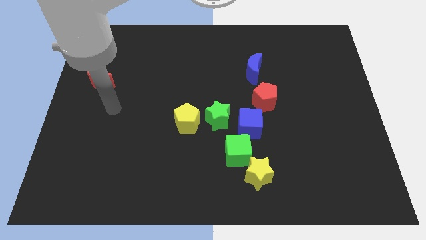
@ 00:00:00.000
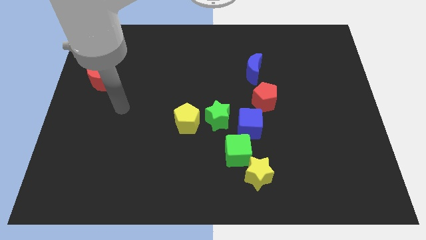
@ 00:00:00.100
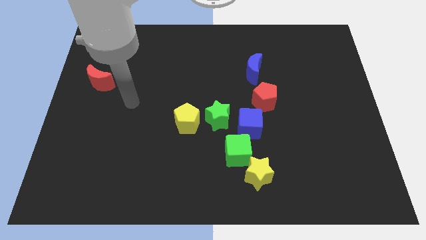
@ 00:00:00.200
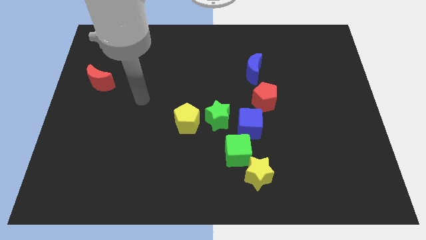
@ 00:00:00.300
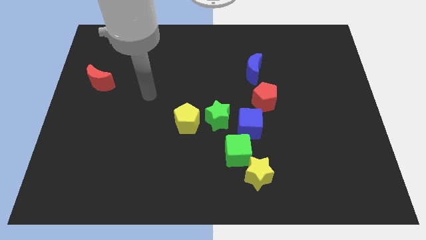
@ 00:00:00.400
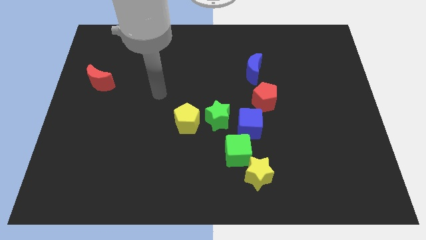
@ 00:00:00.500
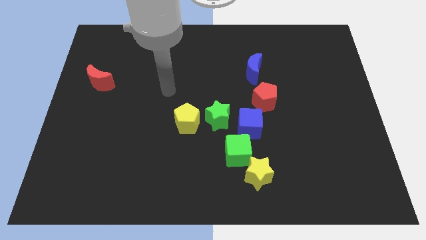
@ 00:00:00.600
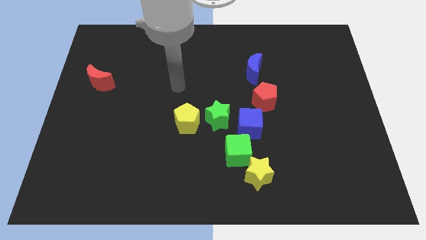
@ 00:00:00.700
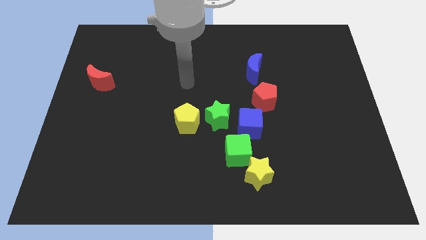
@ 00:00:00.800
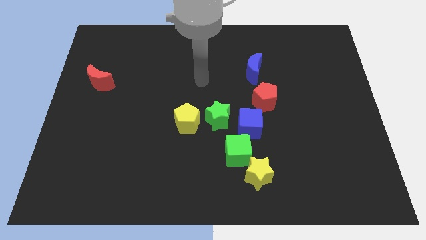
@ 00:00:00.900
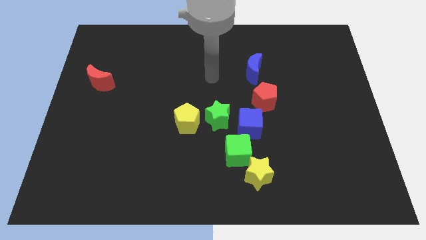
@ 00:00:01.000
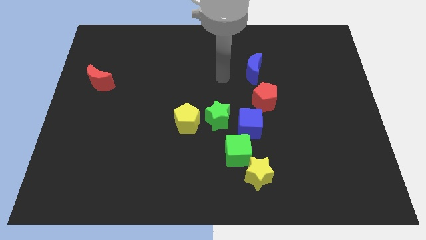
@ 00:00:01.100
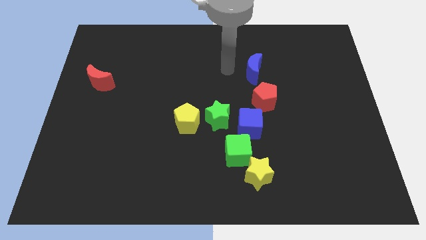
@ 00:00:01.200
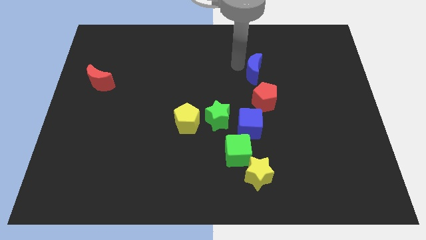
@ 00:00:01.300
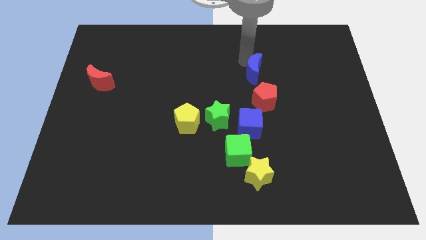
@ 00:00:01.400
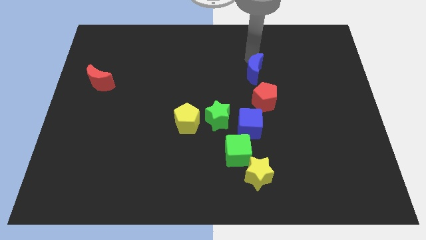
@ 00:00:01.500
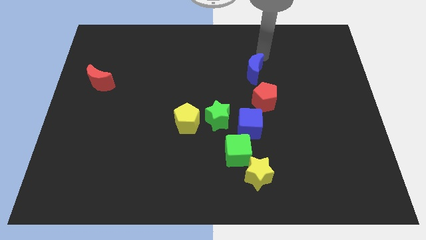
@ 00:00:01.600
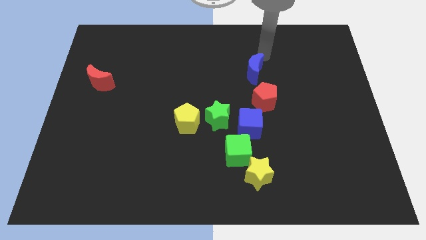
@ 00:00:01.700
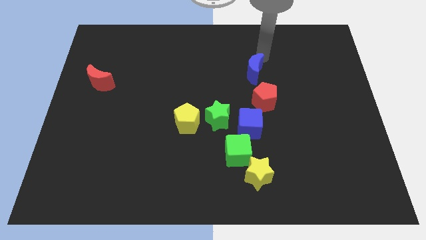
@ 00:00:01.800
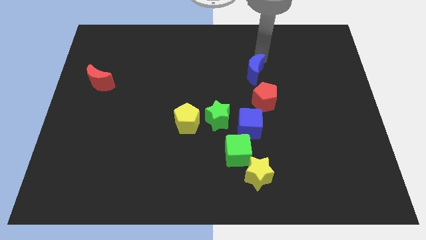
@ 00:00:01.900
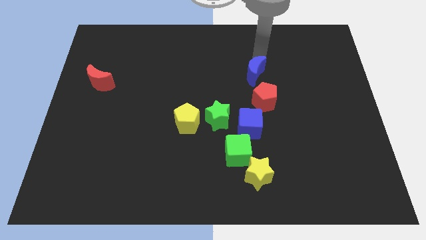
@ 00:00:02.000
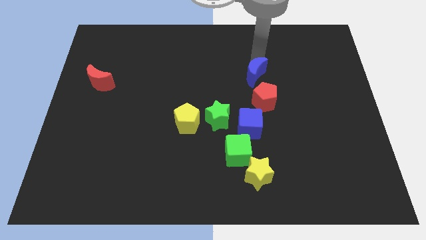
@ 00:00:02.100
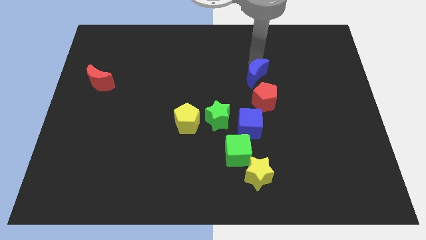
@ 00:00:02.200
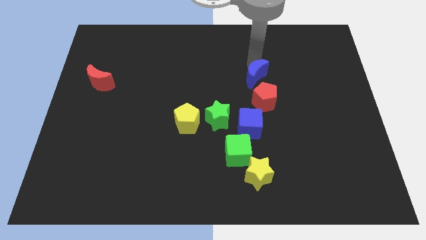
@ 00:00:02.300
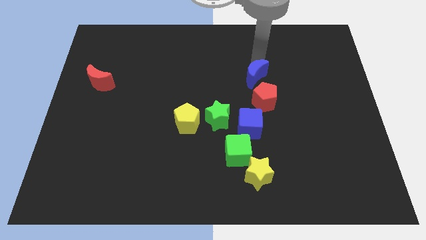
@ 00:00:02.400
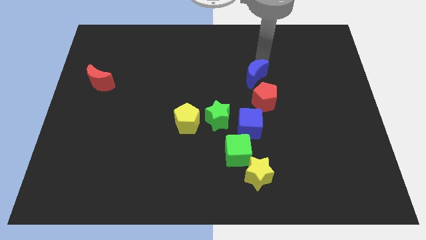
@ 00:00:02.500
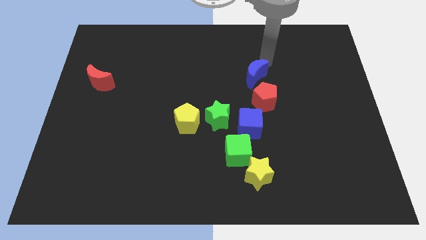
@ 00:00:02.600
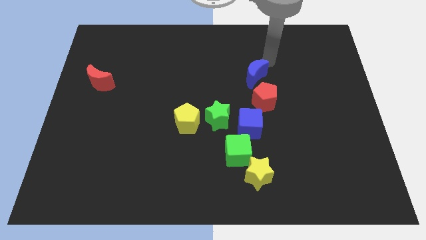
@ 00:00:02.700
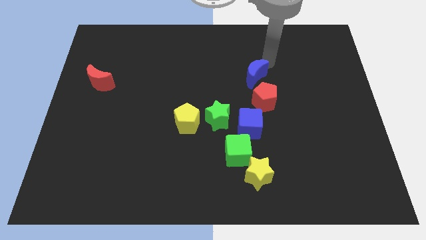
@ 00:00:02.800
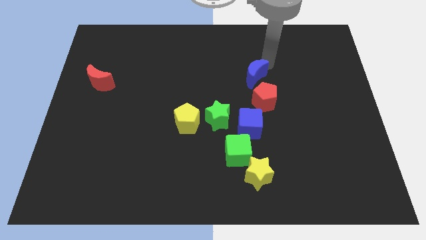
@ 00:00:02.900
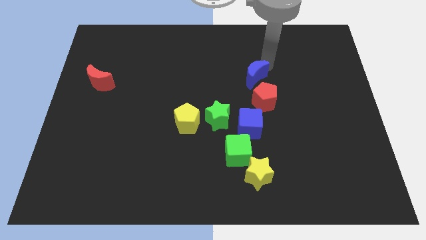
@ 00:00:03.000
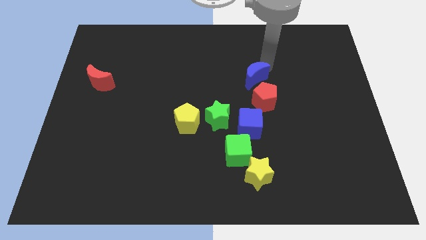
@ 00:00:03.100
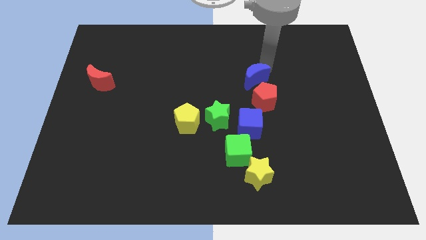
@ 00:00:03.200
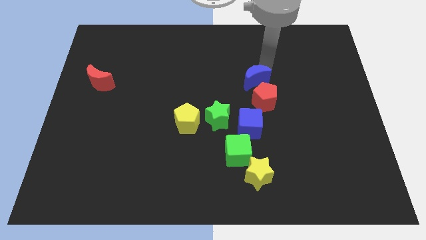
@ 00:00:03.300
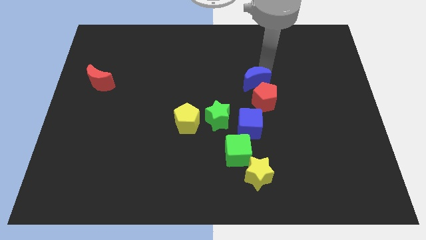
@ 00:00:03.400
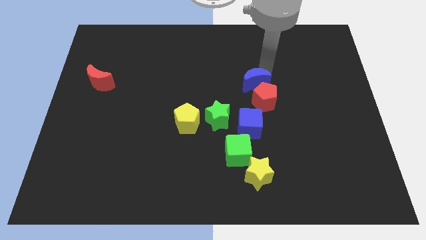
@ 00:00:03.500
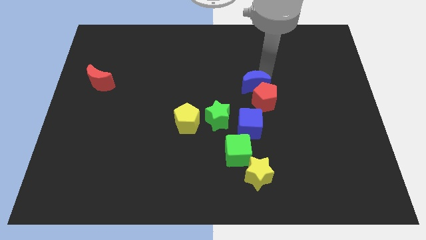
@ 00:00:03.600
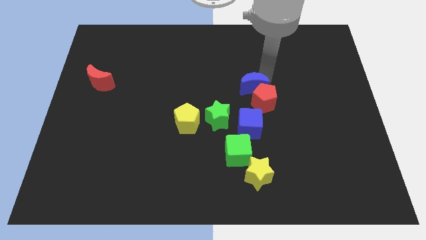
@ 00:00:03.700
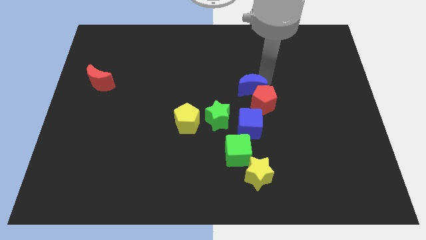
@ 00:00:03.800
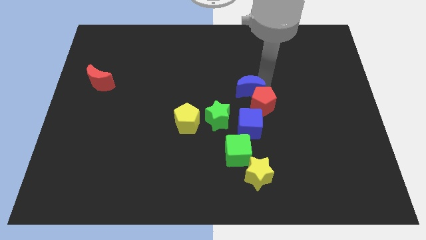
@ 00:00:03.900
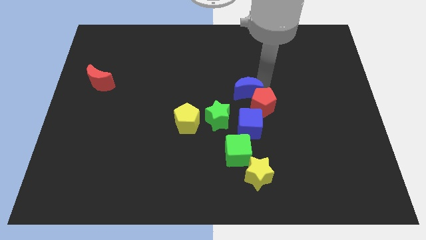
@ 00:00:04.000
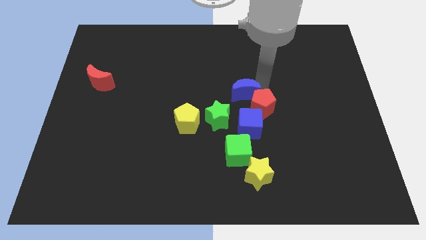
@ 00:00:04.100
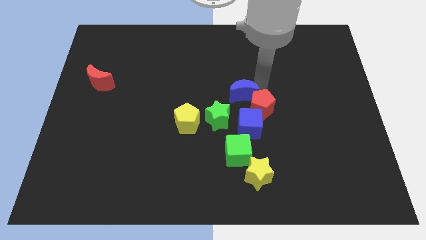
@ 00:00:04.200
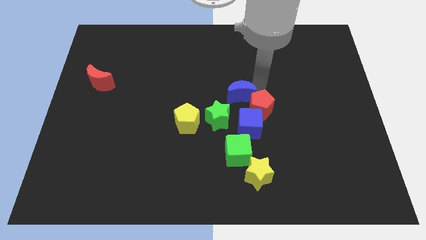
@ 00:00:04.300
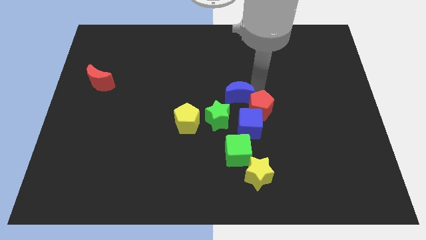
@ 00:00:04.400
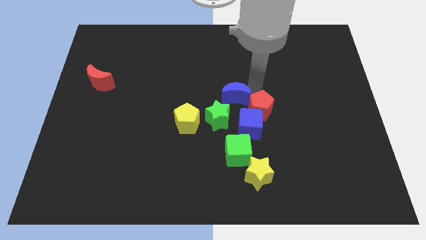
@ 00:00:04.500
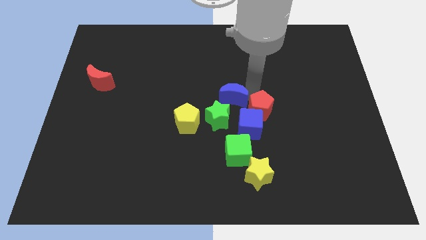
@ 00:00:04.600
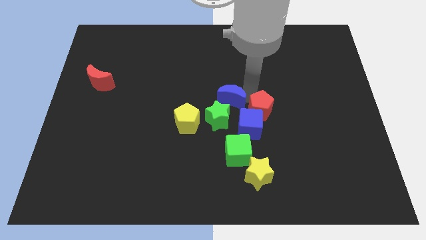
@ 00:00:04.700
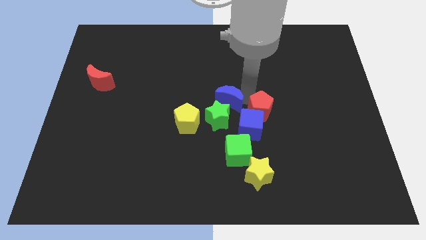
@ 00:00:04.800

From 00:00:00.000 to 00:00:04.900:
move the blue moon close to the green star

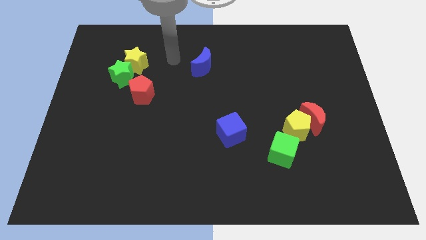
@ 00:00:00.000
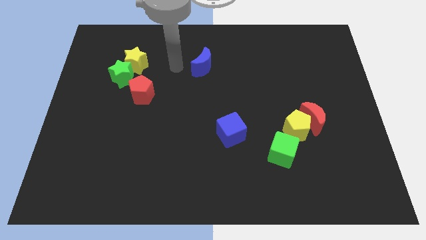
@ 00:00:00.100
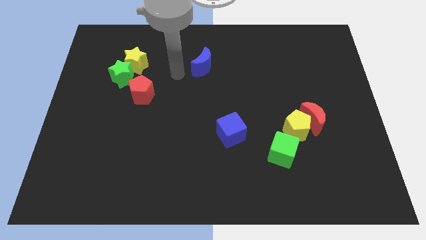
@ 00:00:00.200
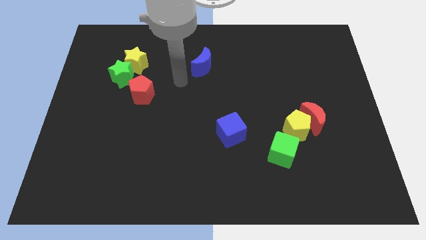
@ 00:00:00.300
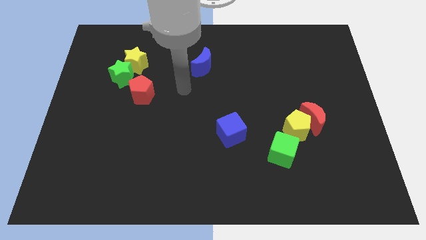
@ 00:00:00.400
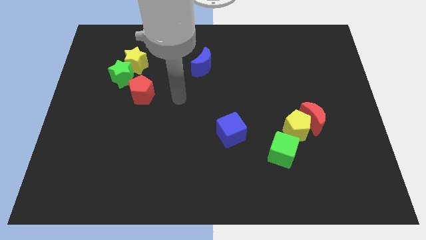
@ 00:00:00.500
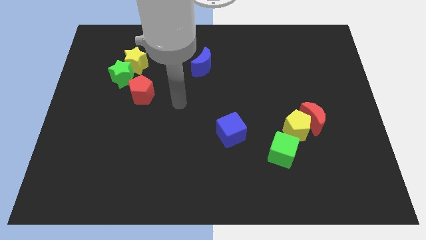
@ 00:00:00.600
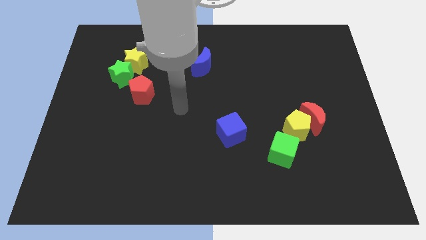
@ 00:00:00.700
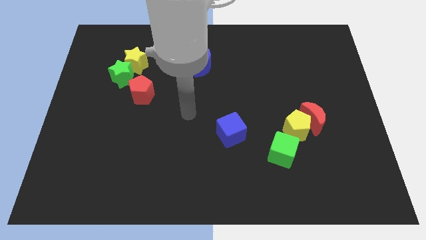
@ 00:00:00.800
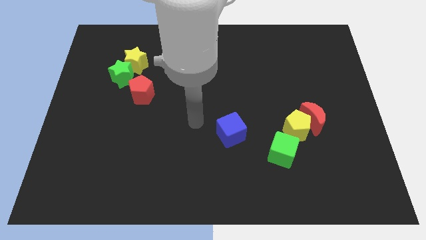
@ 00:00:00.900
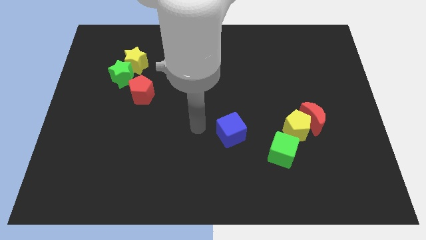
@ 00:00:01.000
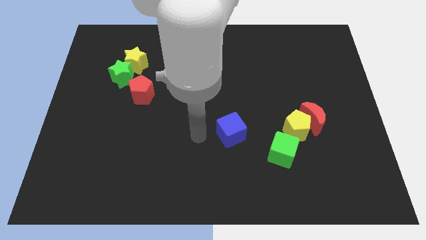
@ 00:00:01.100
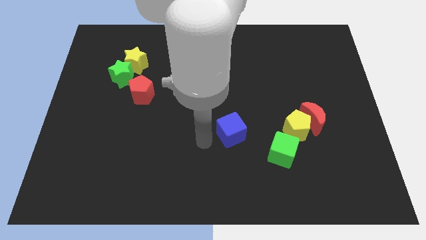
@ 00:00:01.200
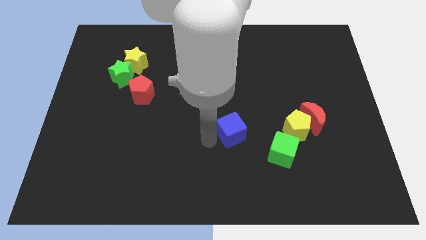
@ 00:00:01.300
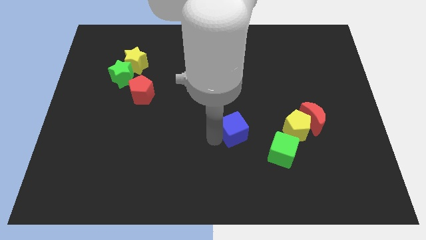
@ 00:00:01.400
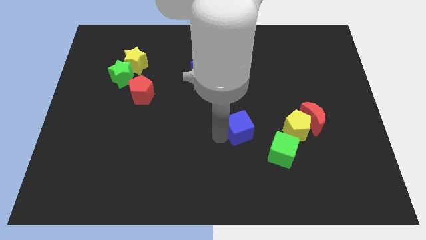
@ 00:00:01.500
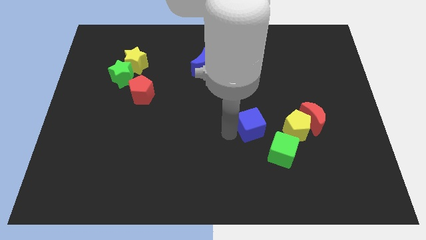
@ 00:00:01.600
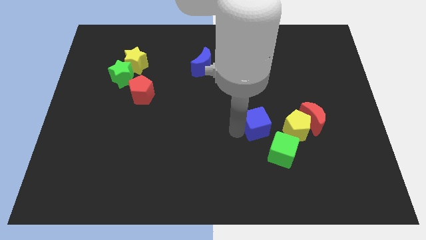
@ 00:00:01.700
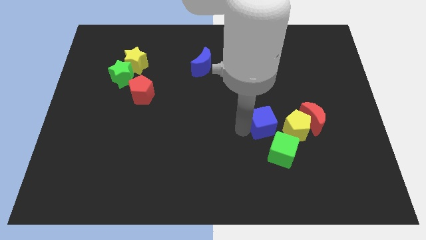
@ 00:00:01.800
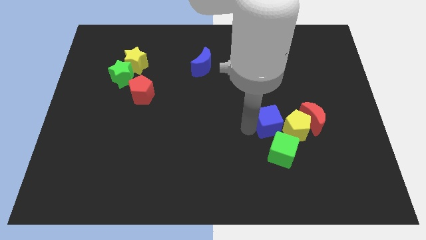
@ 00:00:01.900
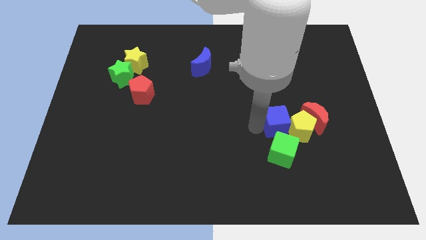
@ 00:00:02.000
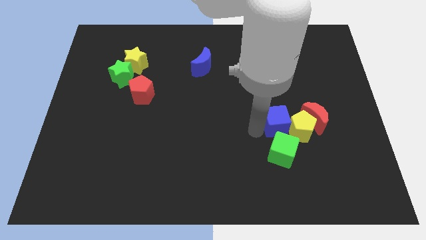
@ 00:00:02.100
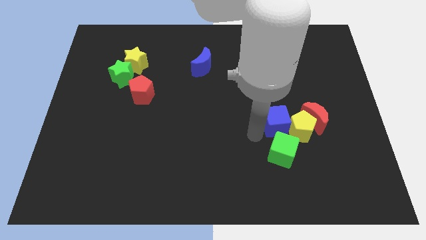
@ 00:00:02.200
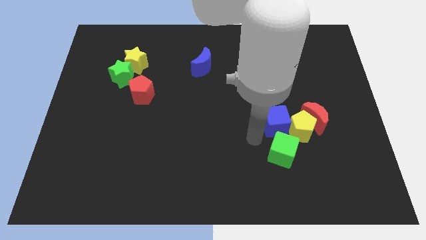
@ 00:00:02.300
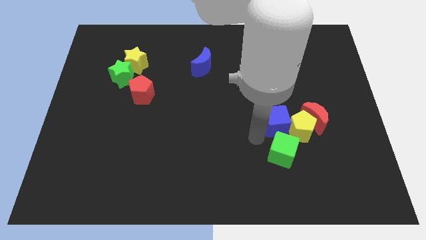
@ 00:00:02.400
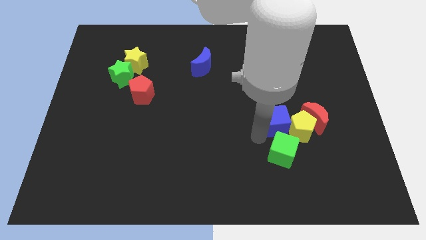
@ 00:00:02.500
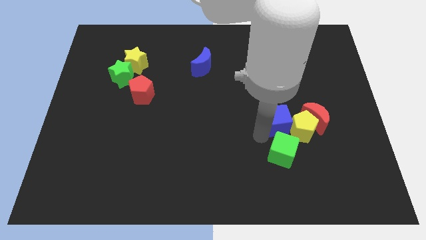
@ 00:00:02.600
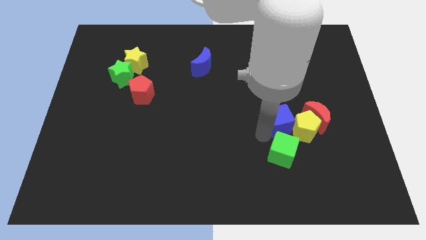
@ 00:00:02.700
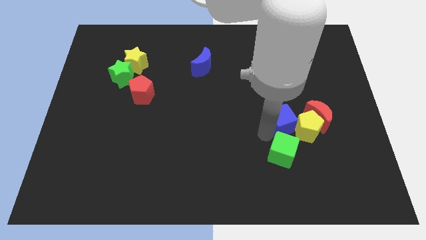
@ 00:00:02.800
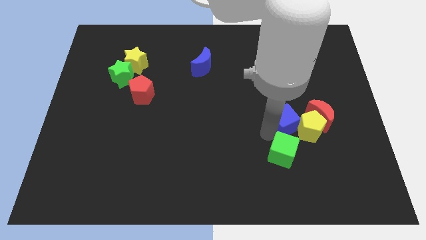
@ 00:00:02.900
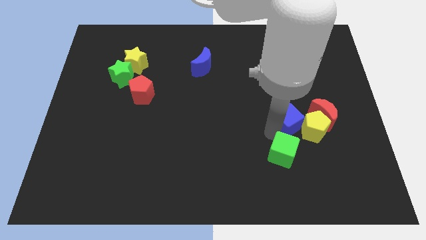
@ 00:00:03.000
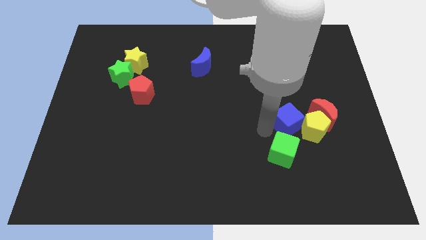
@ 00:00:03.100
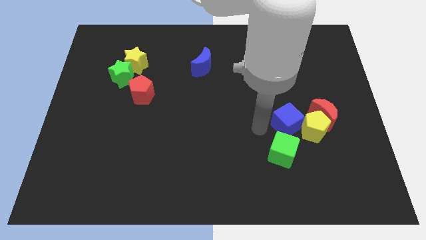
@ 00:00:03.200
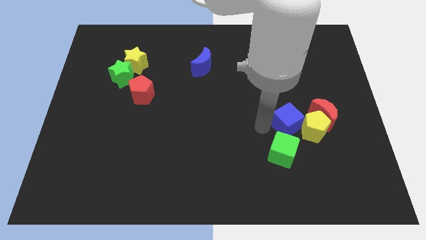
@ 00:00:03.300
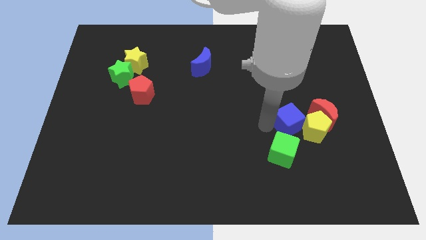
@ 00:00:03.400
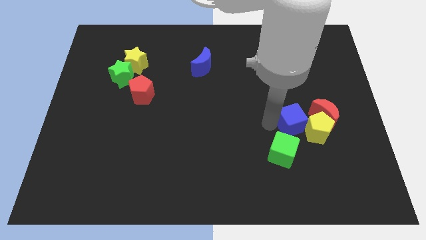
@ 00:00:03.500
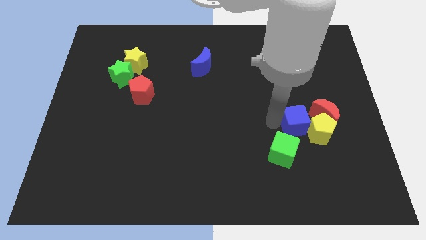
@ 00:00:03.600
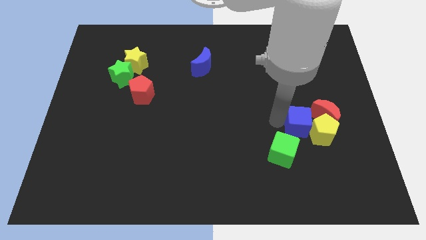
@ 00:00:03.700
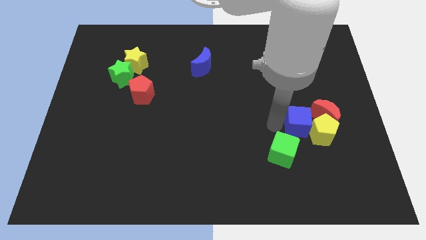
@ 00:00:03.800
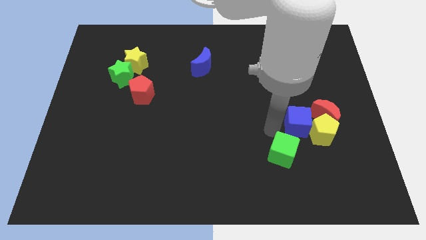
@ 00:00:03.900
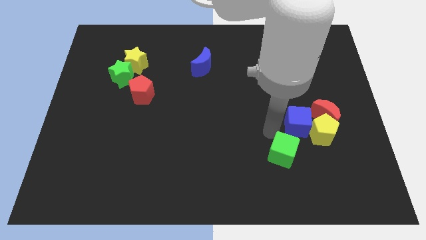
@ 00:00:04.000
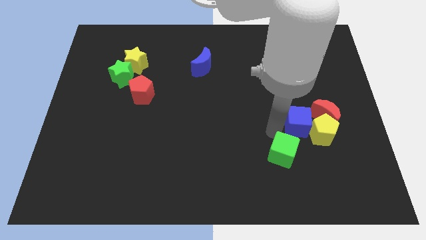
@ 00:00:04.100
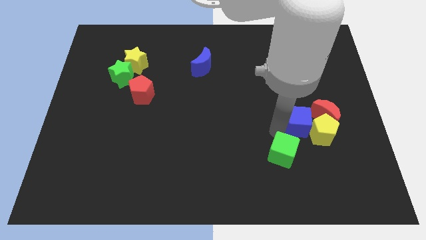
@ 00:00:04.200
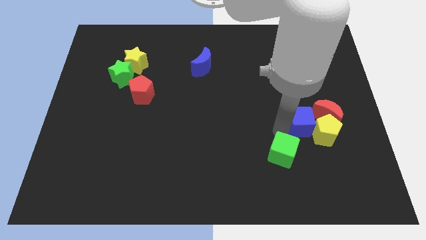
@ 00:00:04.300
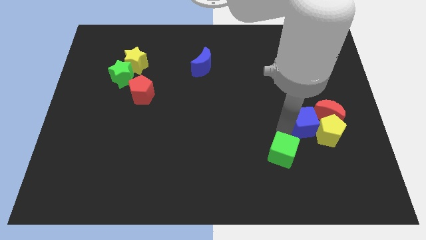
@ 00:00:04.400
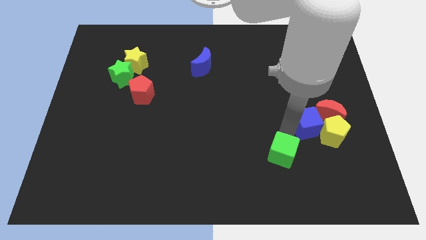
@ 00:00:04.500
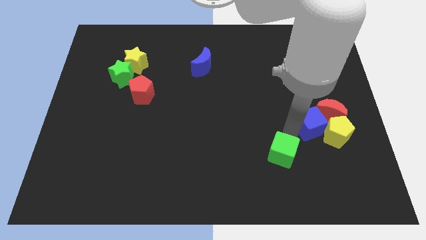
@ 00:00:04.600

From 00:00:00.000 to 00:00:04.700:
put the blue cube close to the red moon
